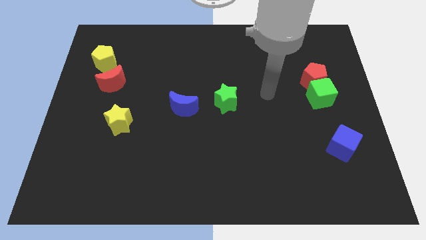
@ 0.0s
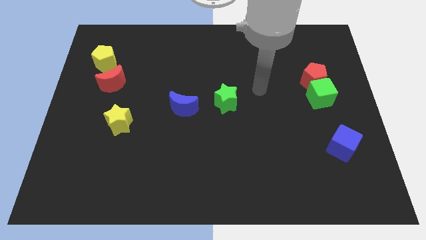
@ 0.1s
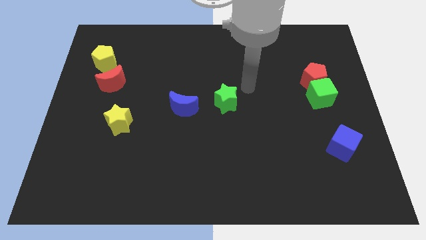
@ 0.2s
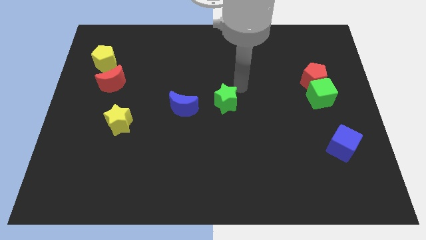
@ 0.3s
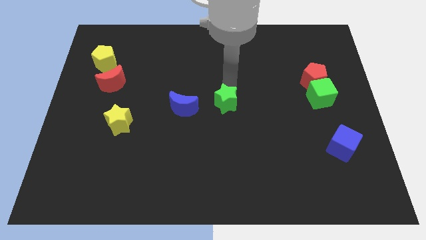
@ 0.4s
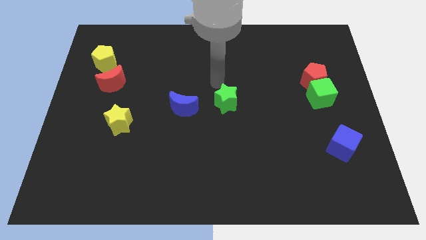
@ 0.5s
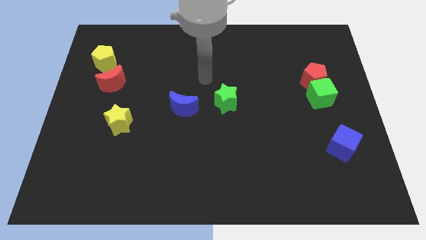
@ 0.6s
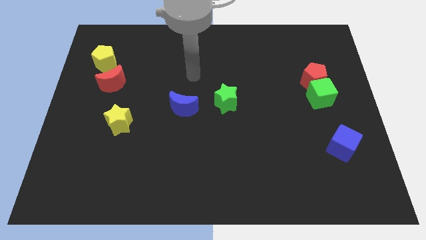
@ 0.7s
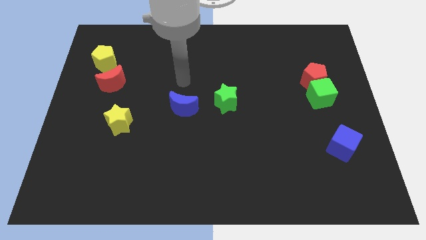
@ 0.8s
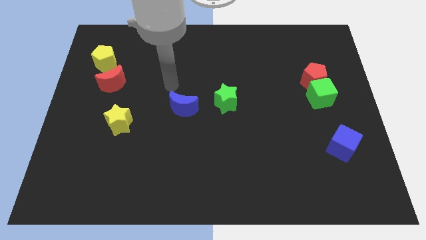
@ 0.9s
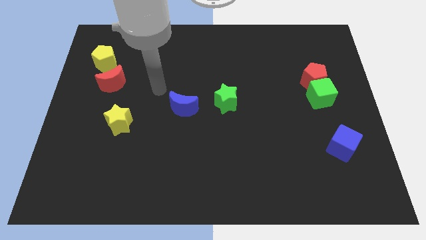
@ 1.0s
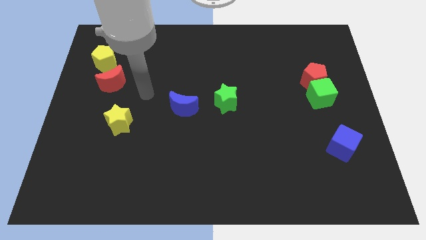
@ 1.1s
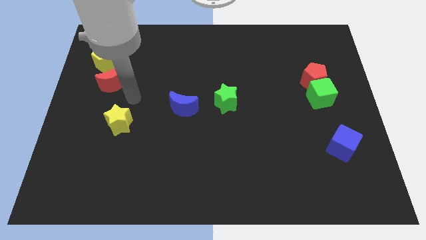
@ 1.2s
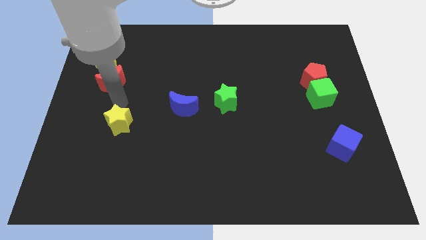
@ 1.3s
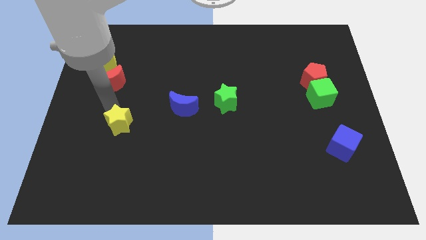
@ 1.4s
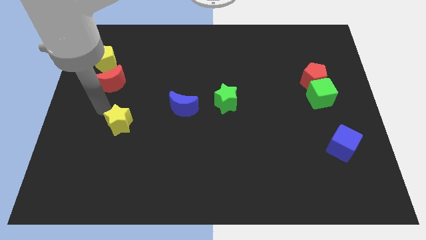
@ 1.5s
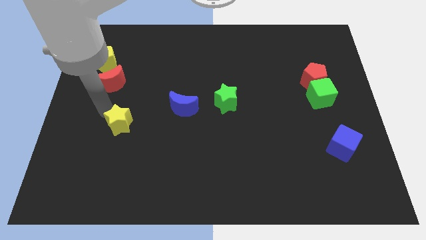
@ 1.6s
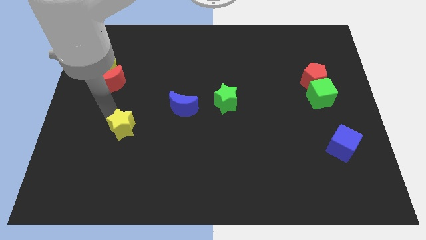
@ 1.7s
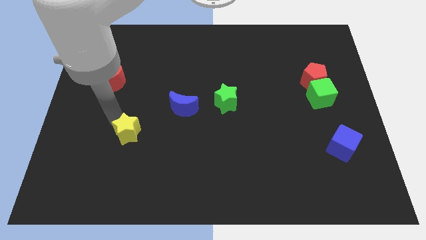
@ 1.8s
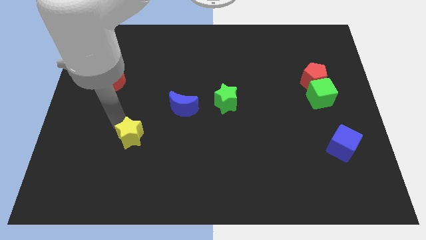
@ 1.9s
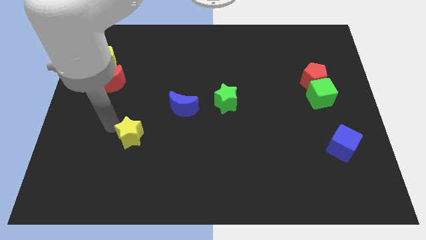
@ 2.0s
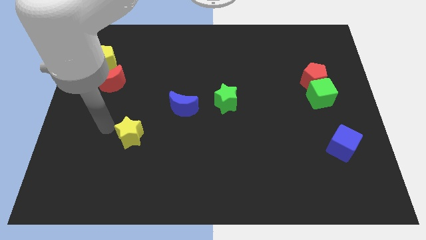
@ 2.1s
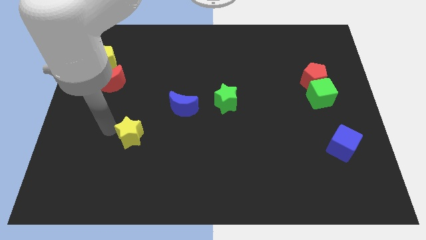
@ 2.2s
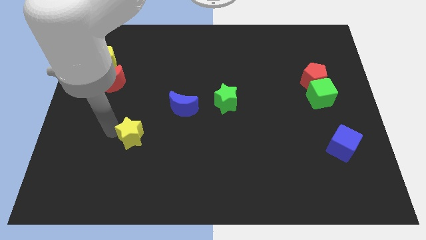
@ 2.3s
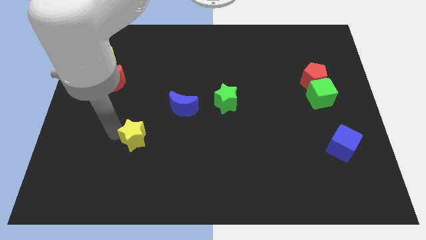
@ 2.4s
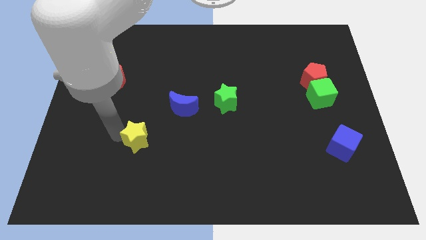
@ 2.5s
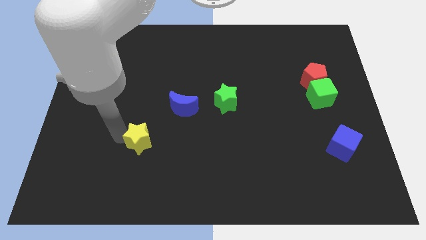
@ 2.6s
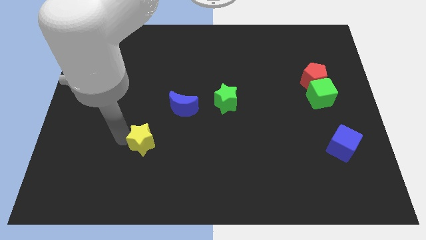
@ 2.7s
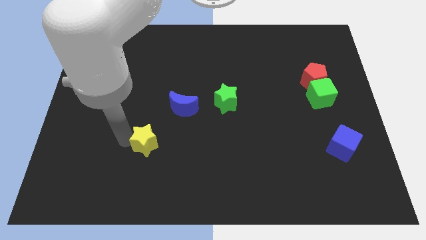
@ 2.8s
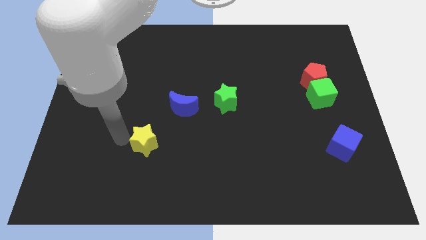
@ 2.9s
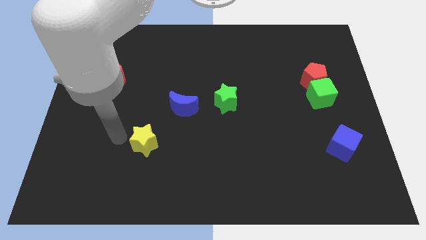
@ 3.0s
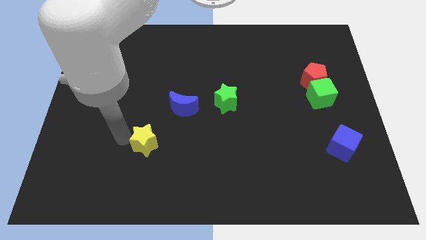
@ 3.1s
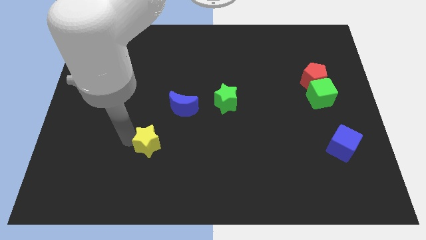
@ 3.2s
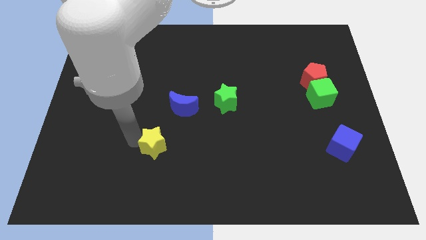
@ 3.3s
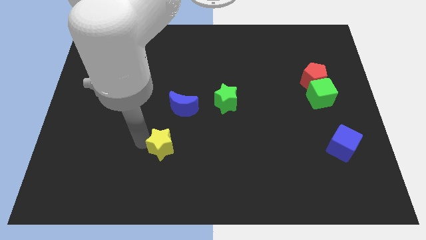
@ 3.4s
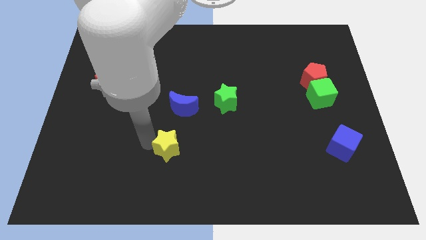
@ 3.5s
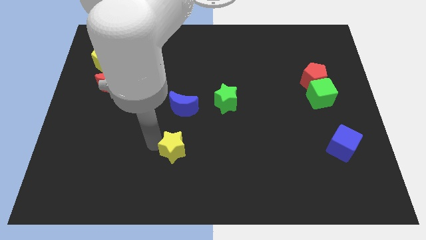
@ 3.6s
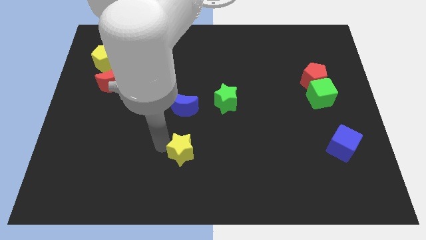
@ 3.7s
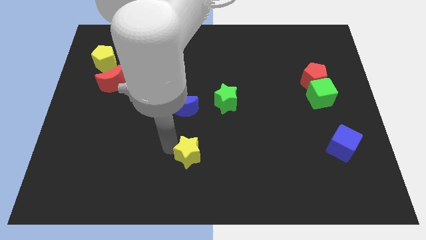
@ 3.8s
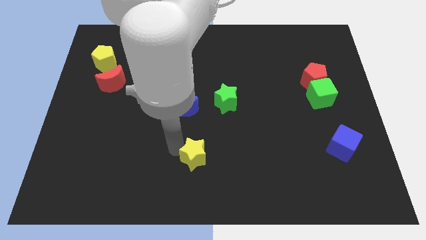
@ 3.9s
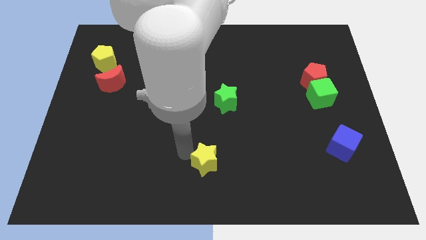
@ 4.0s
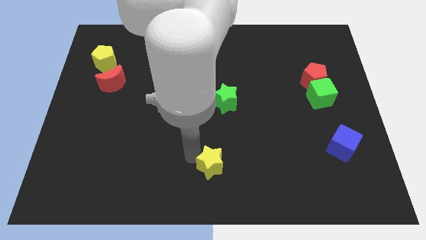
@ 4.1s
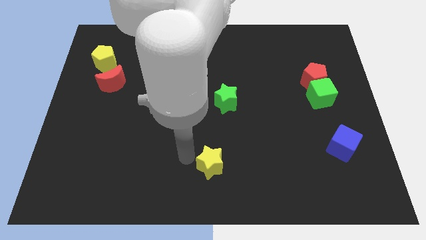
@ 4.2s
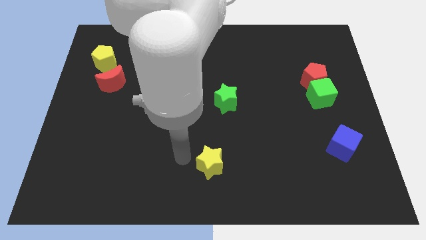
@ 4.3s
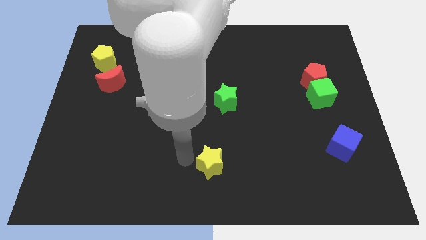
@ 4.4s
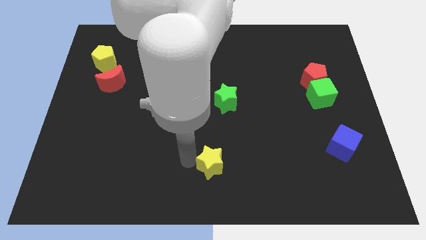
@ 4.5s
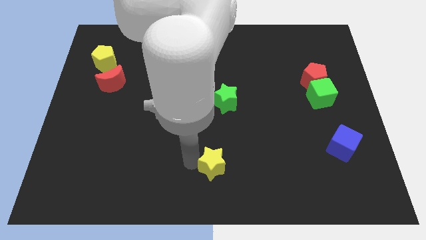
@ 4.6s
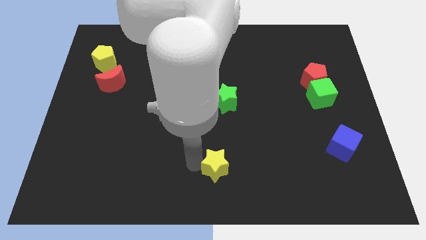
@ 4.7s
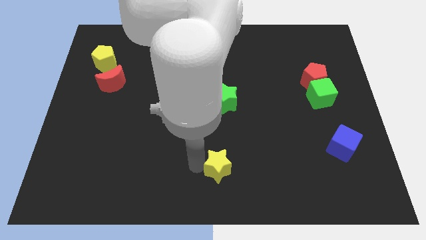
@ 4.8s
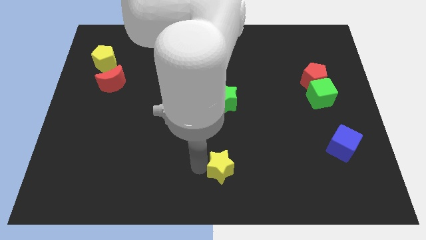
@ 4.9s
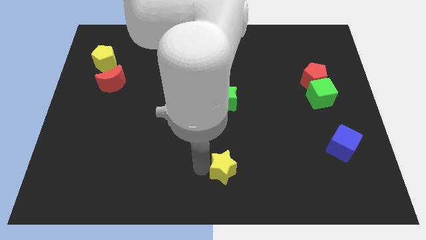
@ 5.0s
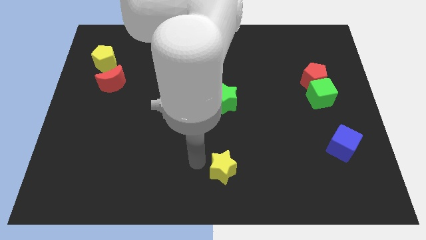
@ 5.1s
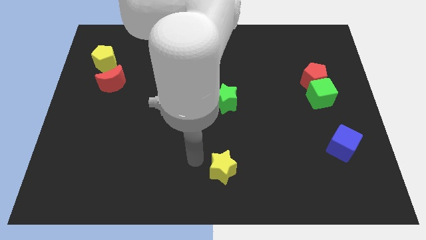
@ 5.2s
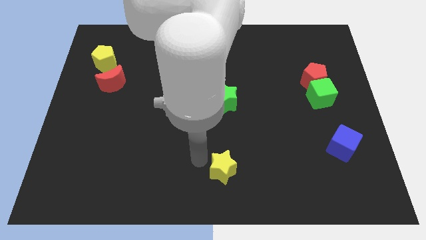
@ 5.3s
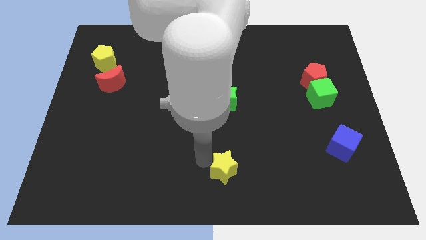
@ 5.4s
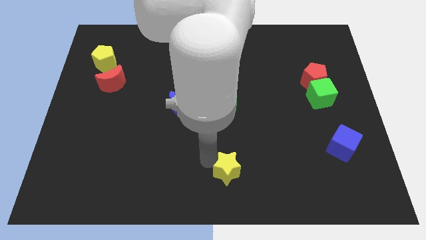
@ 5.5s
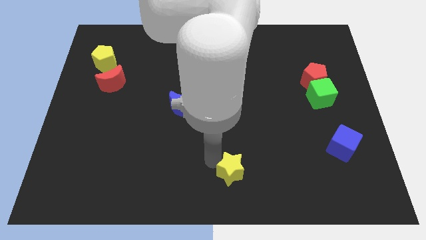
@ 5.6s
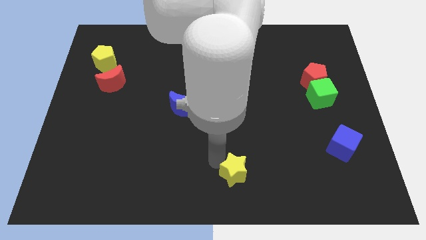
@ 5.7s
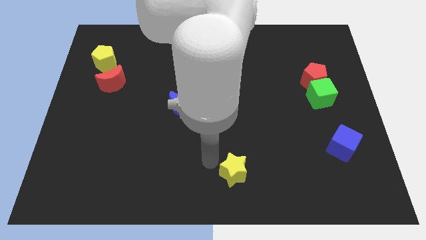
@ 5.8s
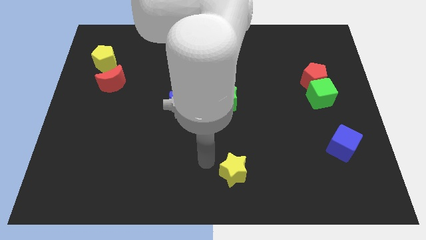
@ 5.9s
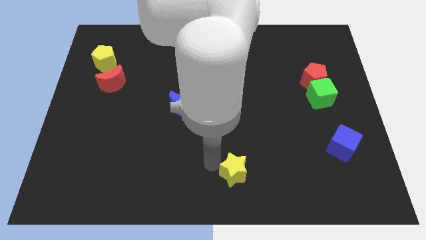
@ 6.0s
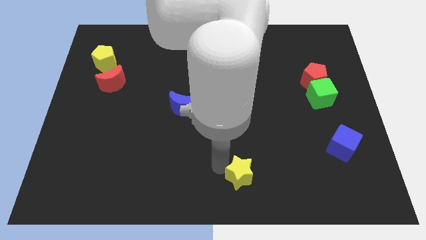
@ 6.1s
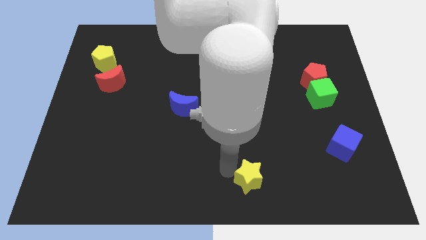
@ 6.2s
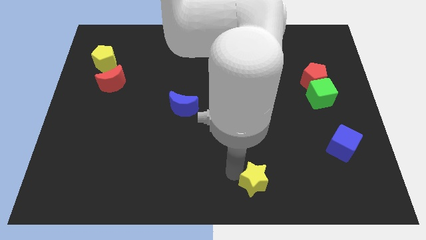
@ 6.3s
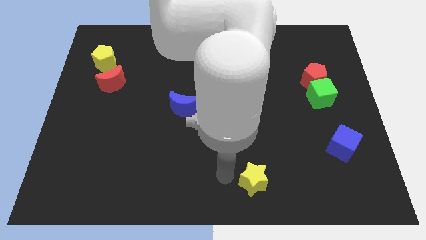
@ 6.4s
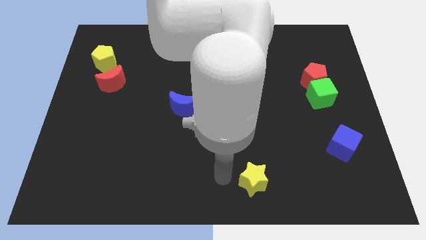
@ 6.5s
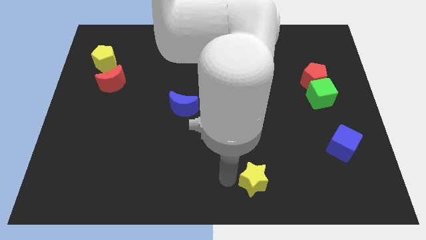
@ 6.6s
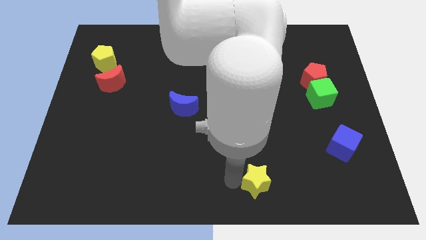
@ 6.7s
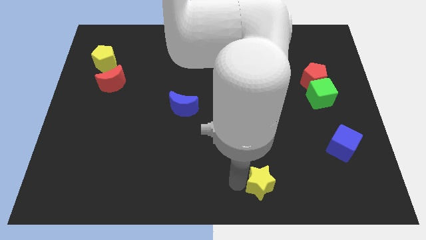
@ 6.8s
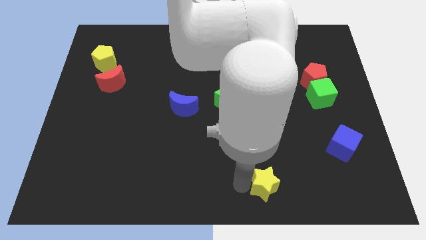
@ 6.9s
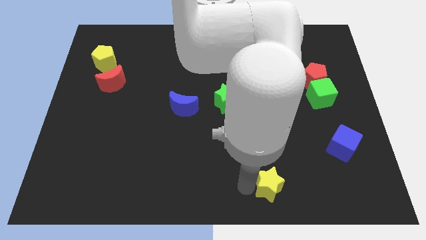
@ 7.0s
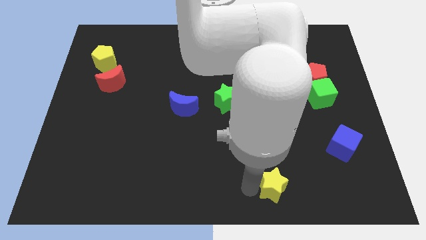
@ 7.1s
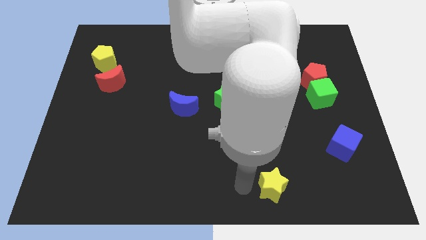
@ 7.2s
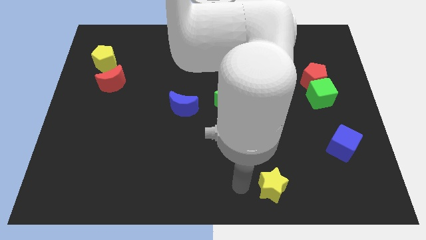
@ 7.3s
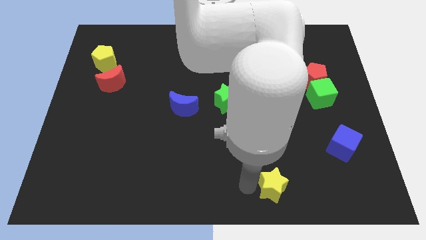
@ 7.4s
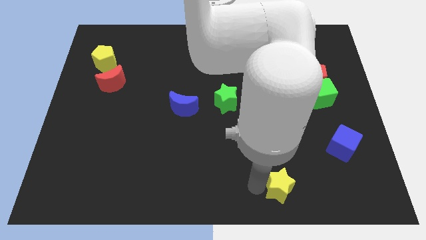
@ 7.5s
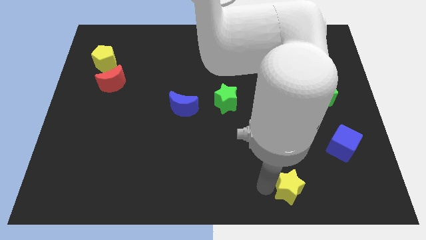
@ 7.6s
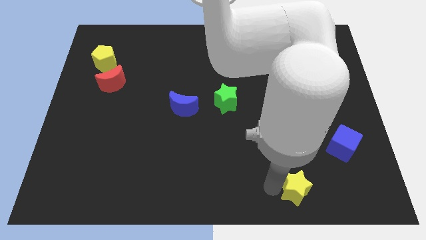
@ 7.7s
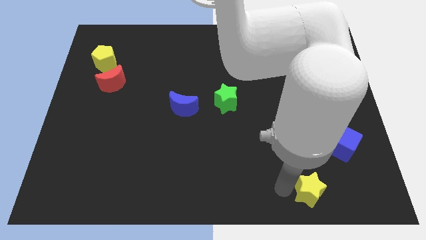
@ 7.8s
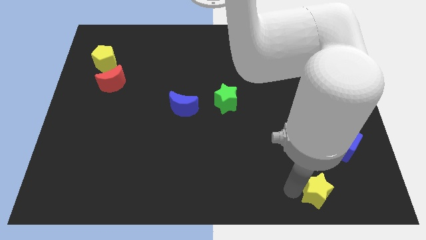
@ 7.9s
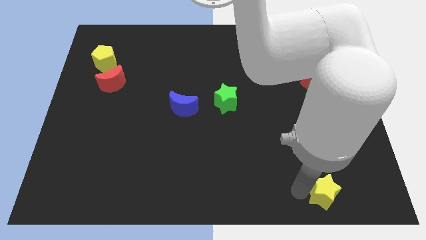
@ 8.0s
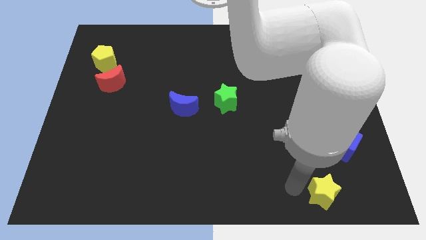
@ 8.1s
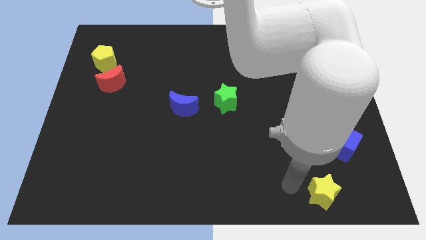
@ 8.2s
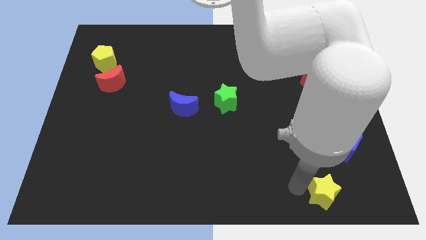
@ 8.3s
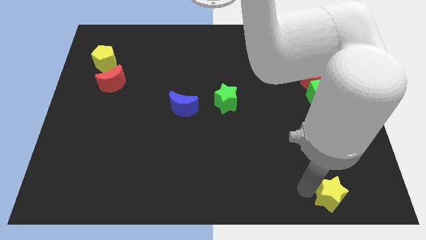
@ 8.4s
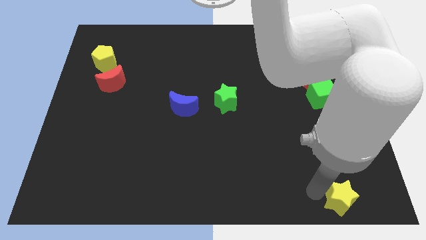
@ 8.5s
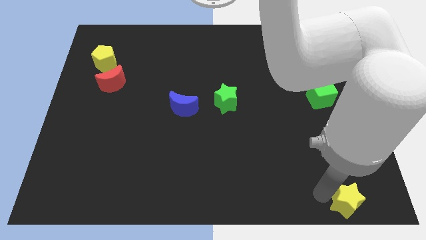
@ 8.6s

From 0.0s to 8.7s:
move the yellow star to the bottom right
